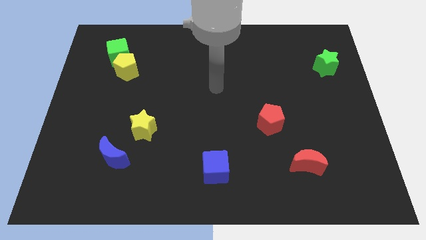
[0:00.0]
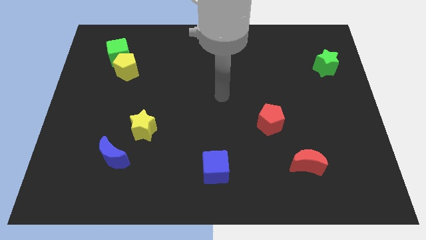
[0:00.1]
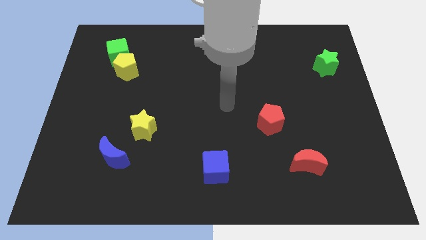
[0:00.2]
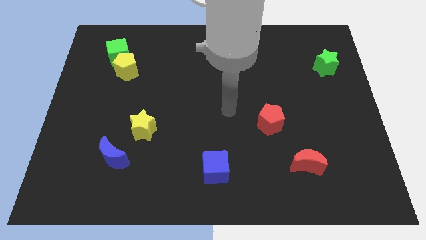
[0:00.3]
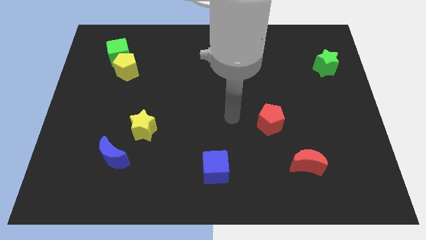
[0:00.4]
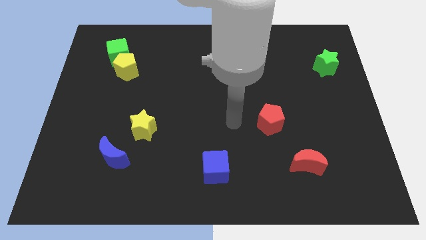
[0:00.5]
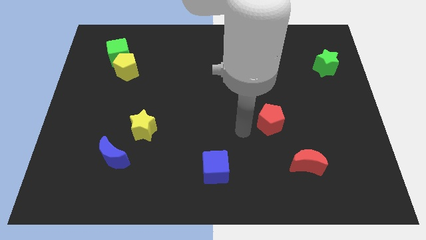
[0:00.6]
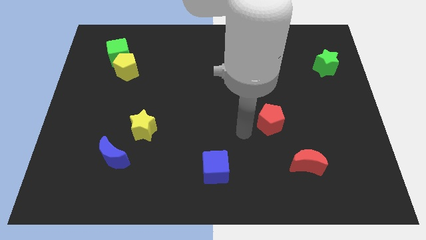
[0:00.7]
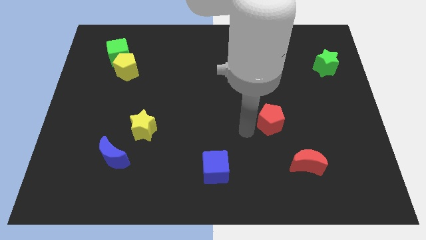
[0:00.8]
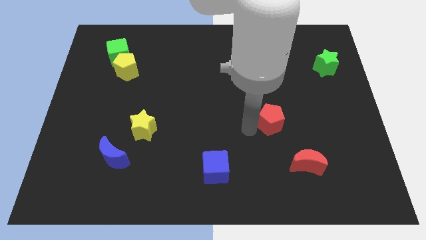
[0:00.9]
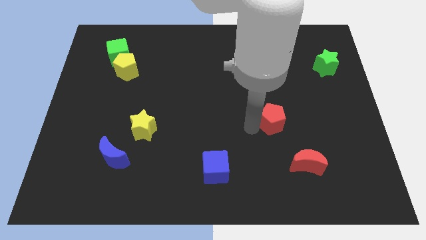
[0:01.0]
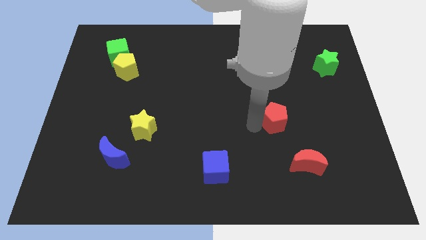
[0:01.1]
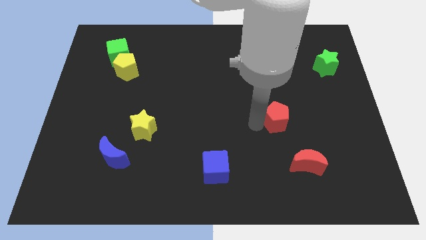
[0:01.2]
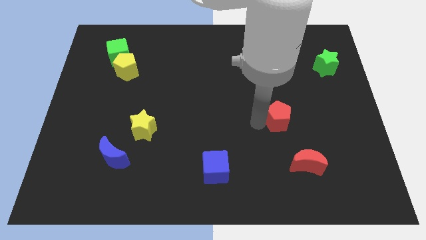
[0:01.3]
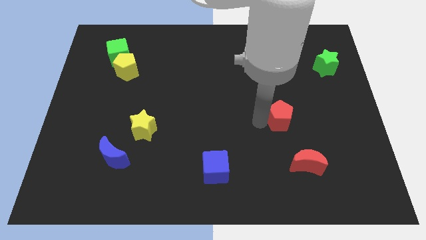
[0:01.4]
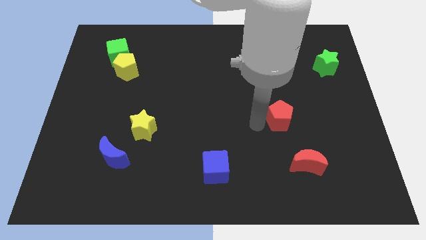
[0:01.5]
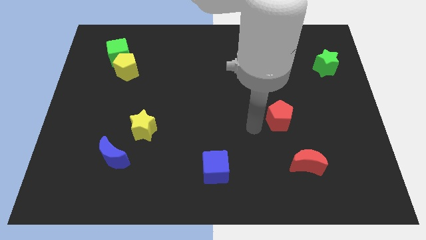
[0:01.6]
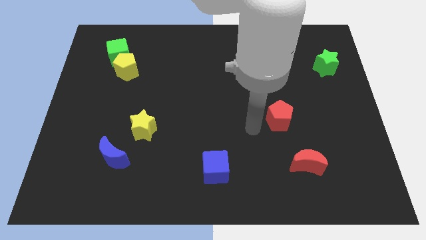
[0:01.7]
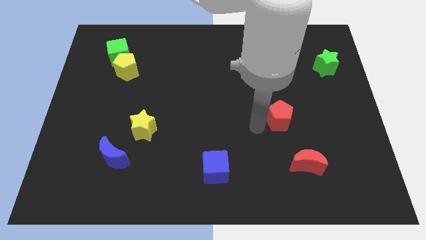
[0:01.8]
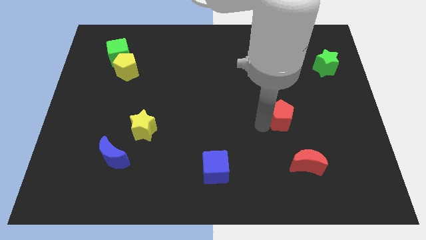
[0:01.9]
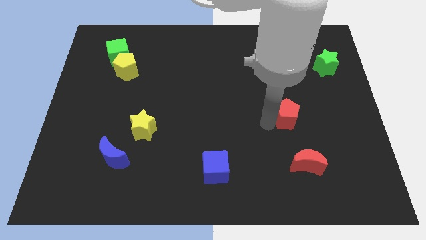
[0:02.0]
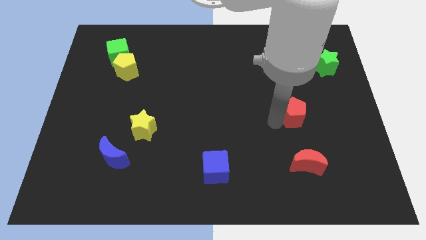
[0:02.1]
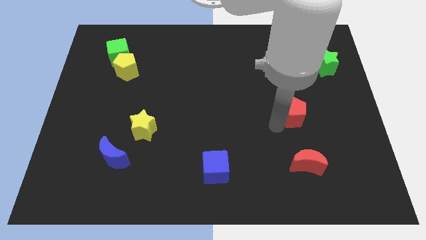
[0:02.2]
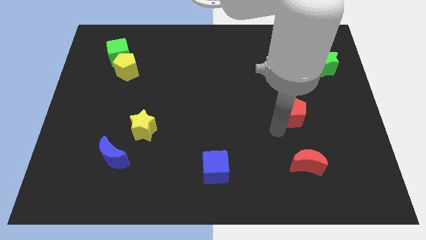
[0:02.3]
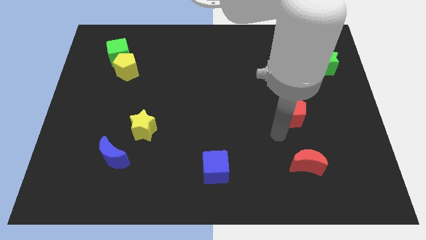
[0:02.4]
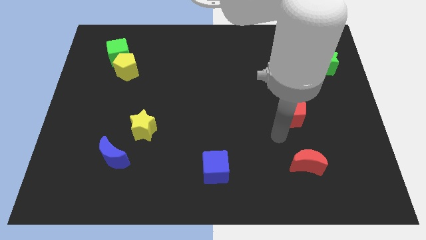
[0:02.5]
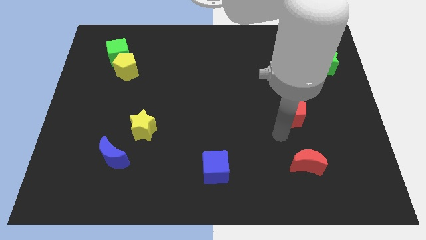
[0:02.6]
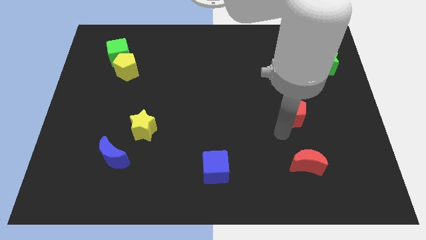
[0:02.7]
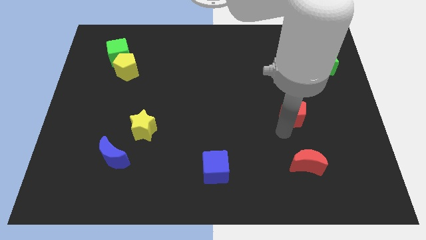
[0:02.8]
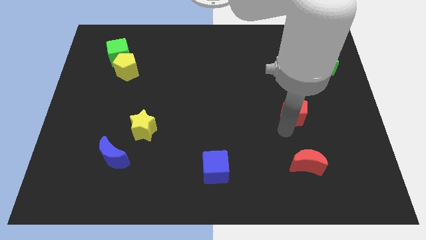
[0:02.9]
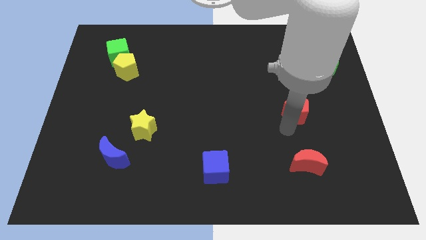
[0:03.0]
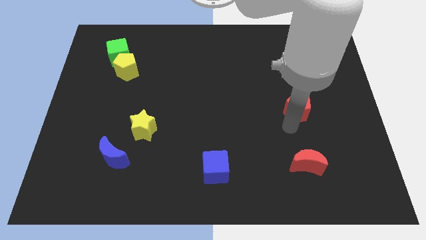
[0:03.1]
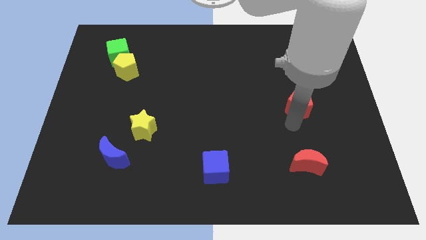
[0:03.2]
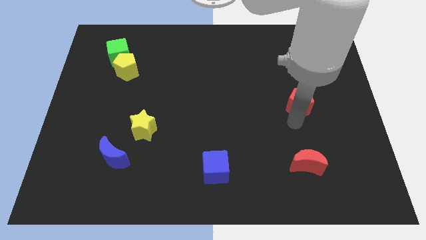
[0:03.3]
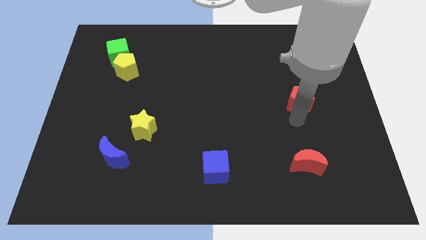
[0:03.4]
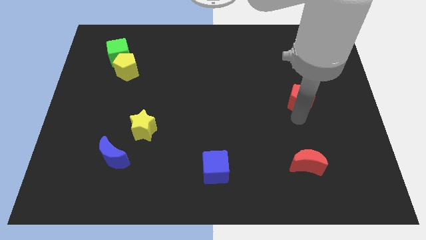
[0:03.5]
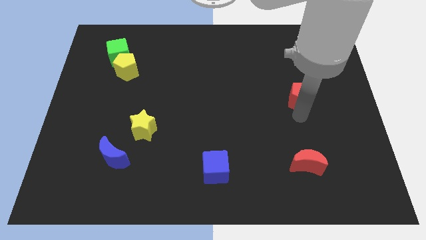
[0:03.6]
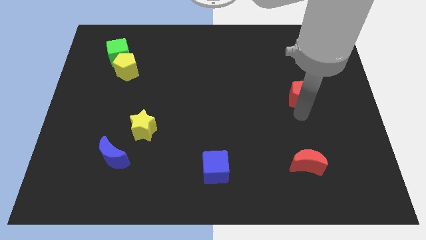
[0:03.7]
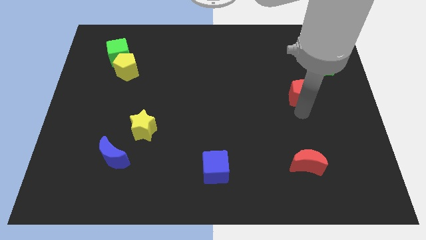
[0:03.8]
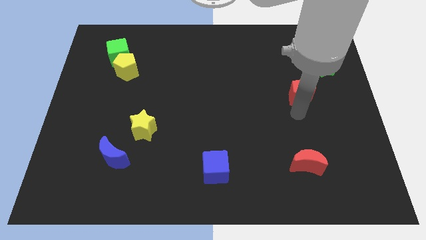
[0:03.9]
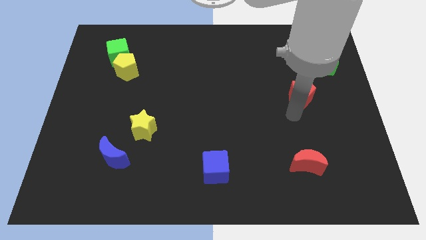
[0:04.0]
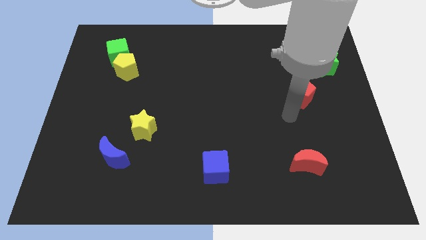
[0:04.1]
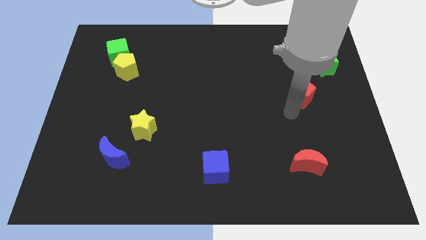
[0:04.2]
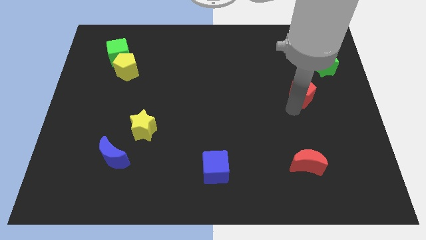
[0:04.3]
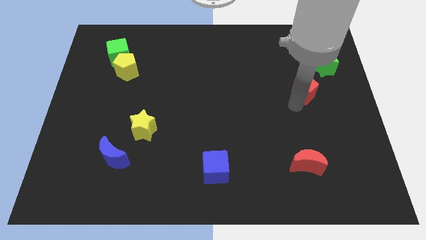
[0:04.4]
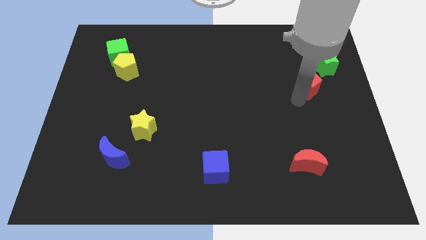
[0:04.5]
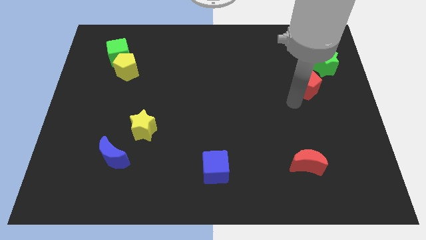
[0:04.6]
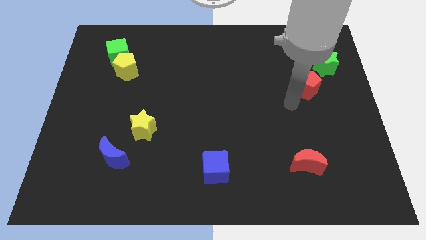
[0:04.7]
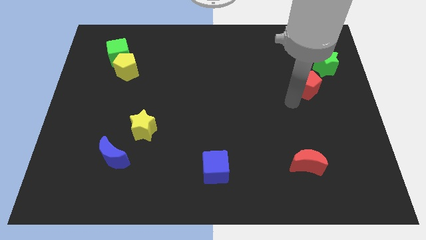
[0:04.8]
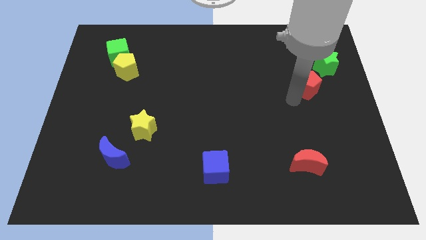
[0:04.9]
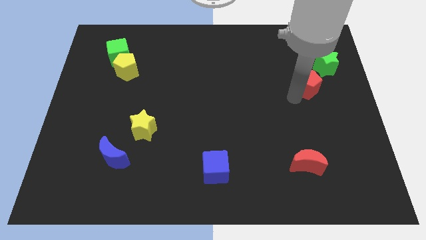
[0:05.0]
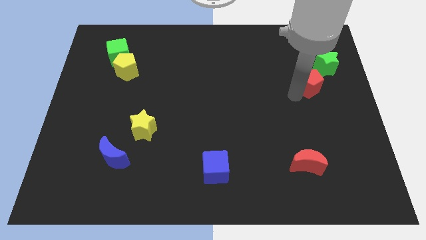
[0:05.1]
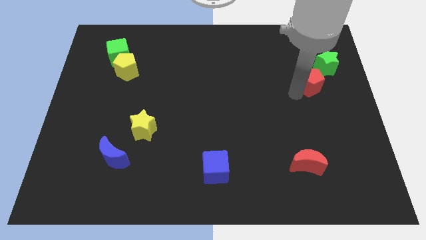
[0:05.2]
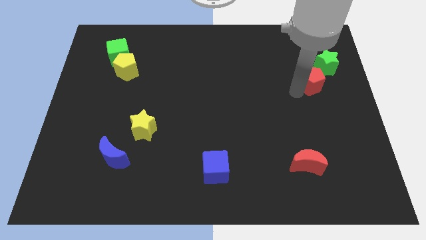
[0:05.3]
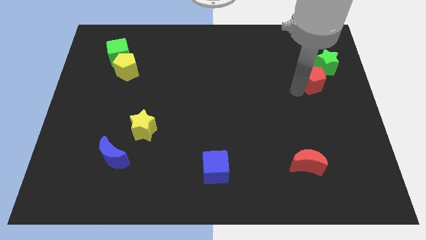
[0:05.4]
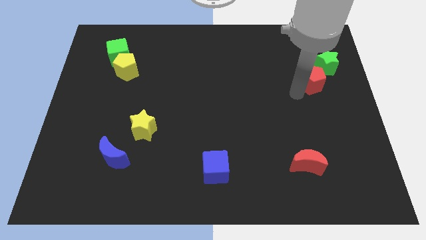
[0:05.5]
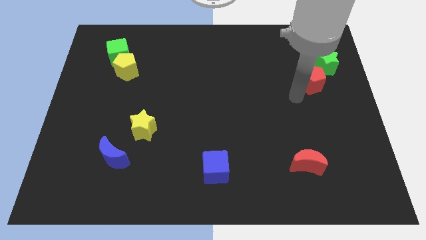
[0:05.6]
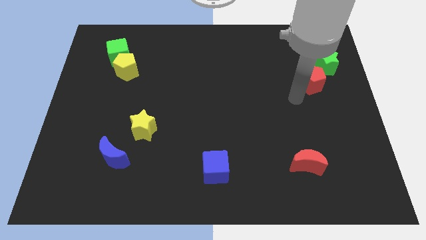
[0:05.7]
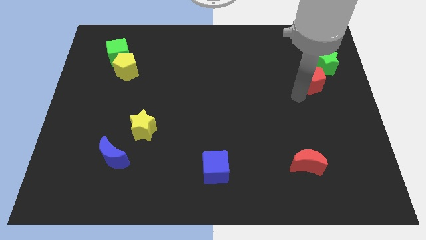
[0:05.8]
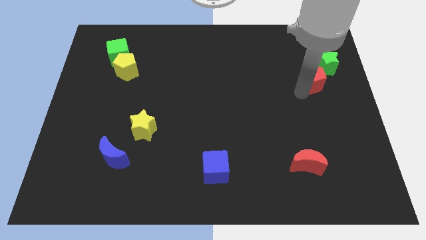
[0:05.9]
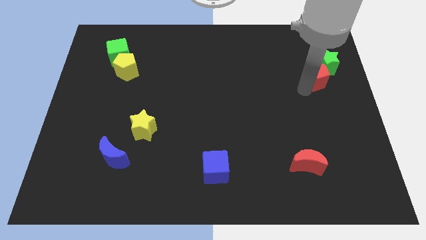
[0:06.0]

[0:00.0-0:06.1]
put the red pentagon to the green star

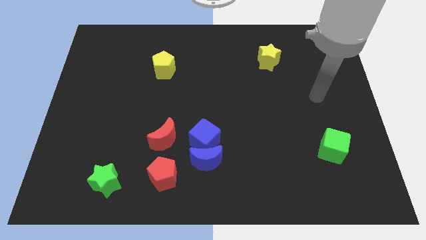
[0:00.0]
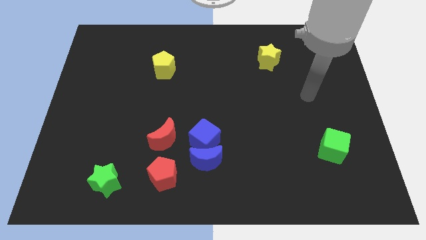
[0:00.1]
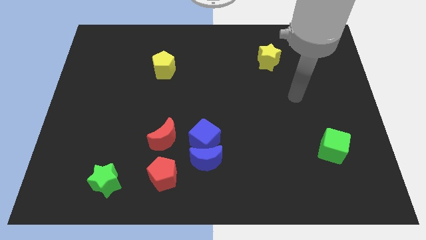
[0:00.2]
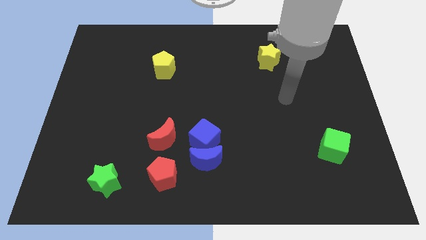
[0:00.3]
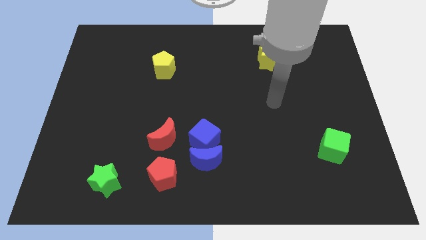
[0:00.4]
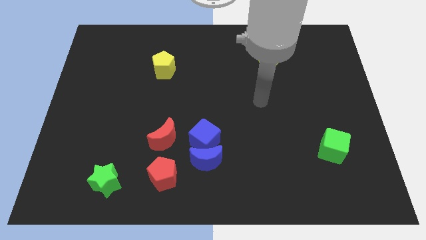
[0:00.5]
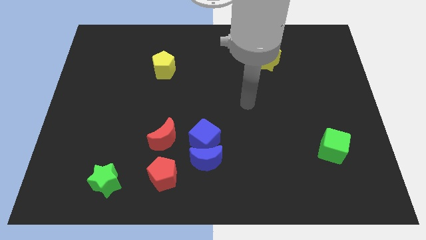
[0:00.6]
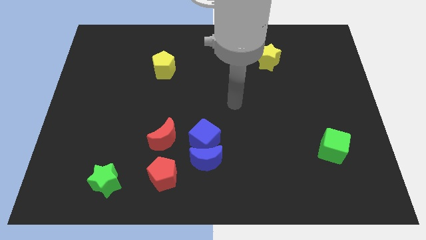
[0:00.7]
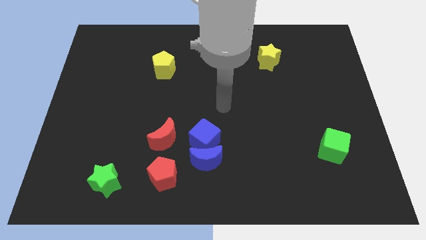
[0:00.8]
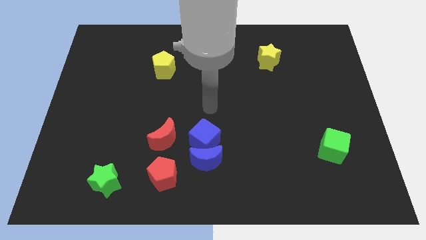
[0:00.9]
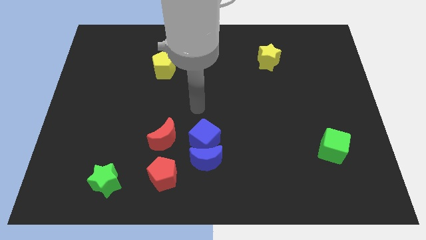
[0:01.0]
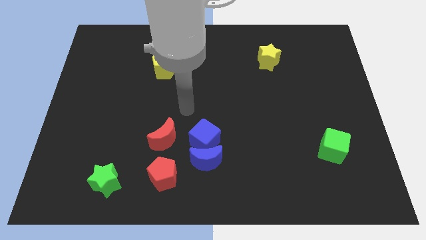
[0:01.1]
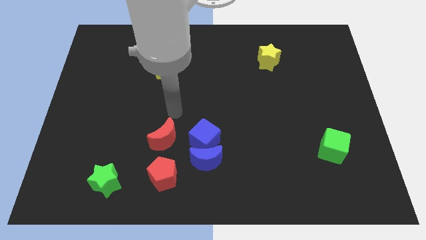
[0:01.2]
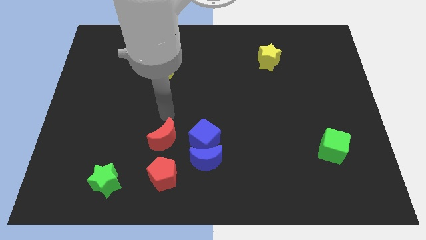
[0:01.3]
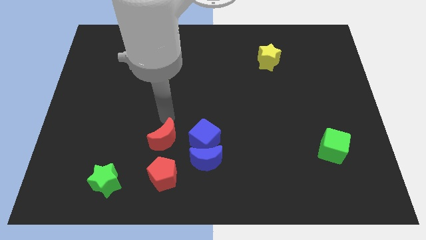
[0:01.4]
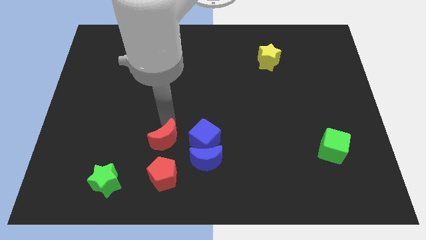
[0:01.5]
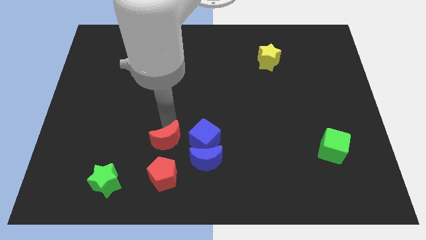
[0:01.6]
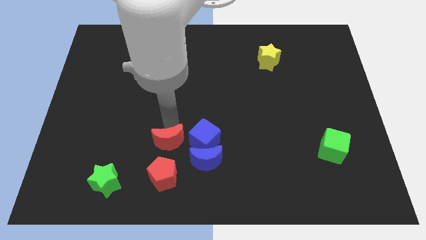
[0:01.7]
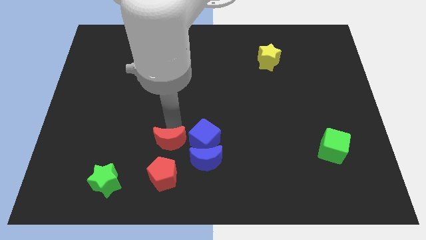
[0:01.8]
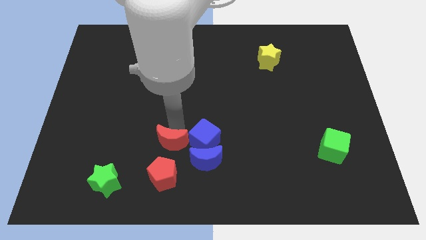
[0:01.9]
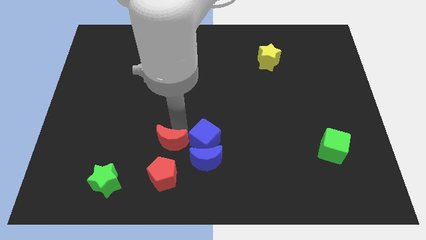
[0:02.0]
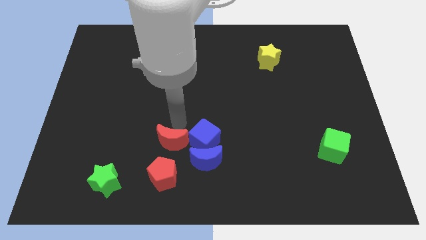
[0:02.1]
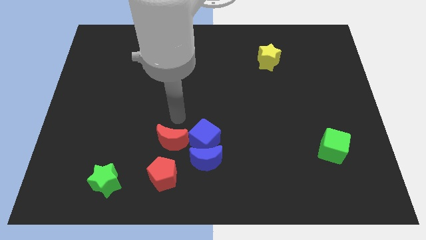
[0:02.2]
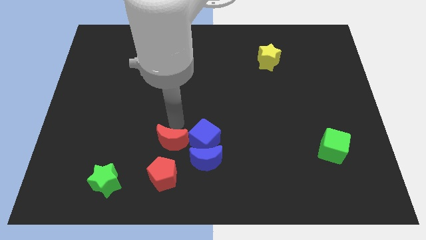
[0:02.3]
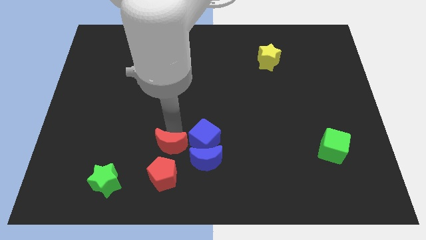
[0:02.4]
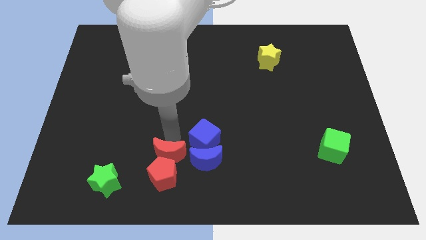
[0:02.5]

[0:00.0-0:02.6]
move the red moon close to the red pentagon
